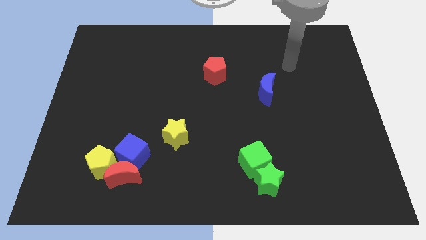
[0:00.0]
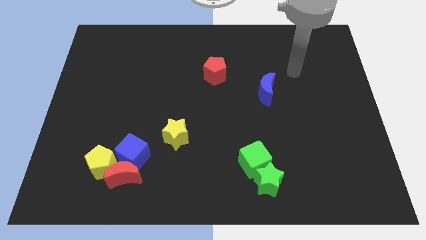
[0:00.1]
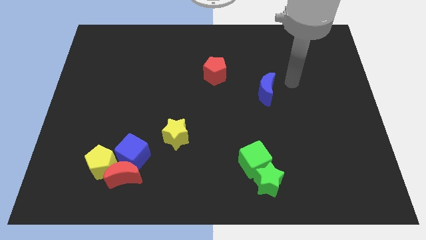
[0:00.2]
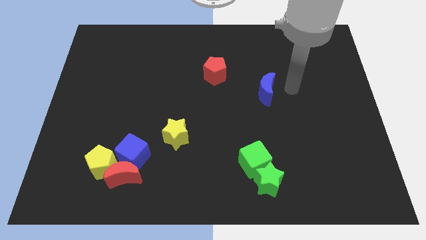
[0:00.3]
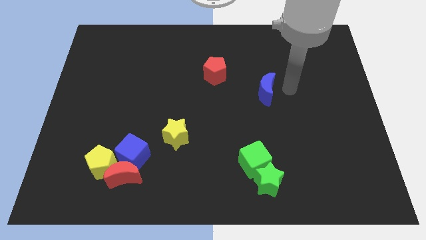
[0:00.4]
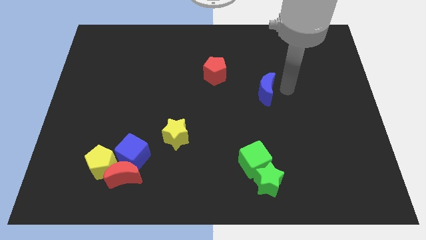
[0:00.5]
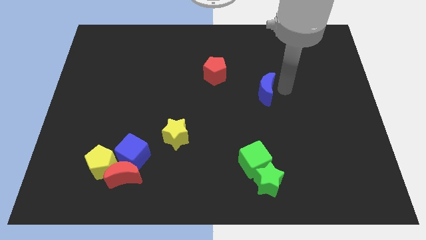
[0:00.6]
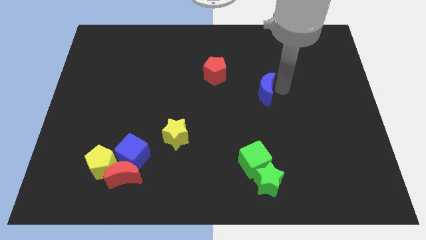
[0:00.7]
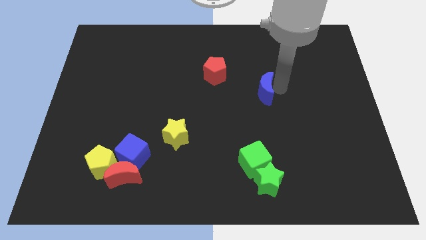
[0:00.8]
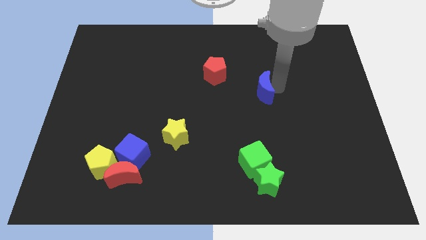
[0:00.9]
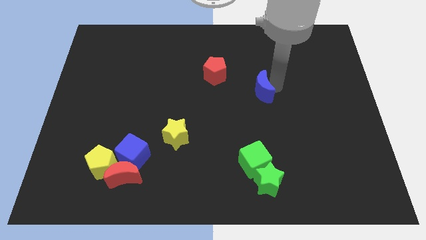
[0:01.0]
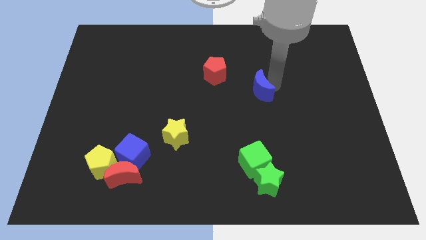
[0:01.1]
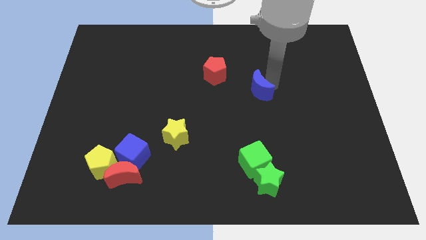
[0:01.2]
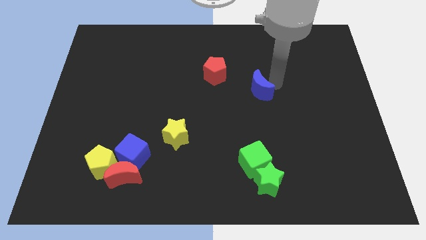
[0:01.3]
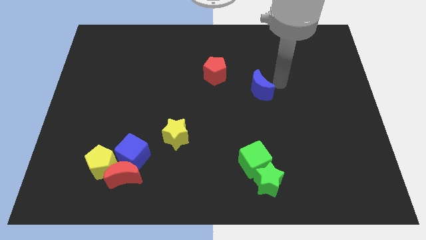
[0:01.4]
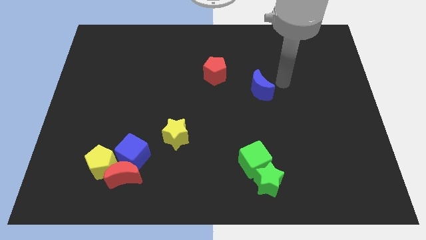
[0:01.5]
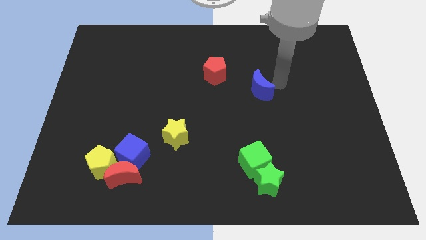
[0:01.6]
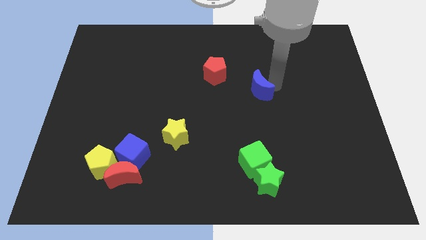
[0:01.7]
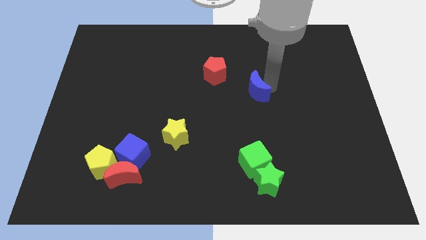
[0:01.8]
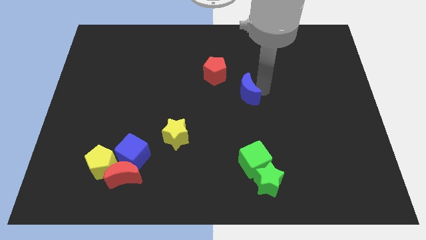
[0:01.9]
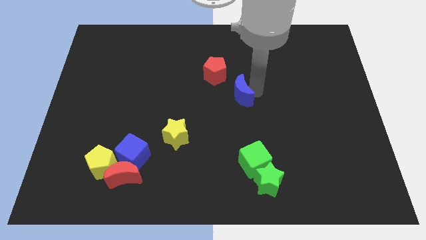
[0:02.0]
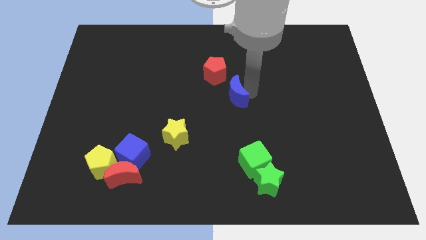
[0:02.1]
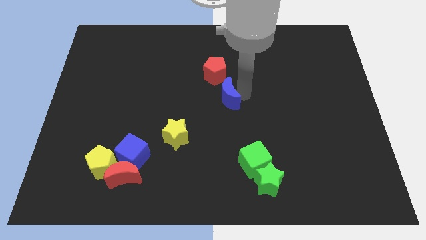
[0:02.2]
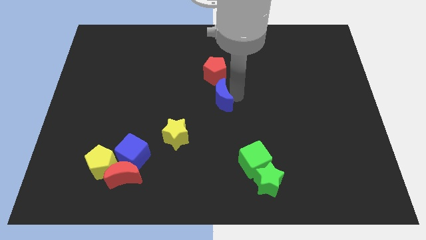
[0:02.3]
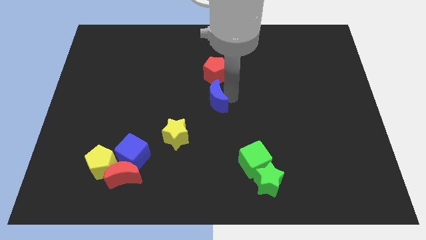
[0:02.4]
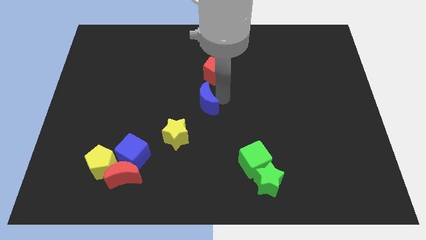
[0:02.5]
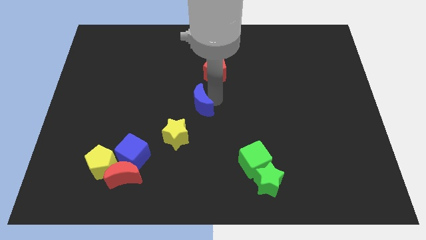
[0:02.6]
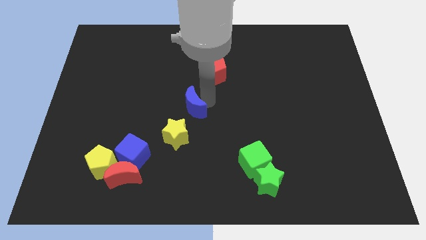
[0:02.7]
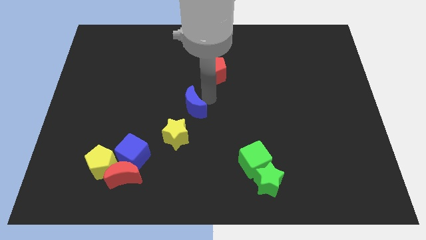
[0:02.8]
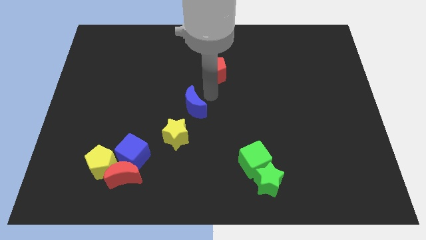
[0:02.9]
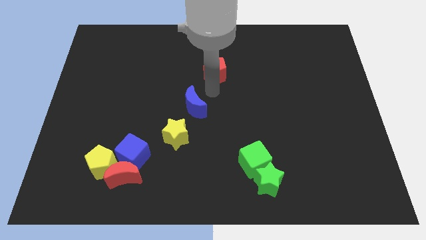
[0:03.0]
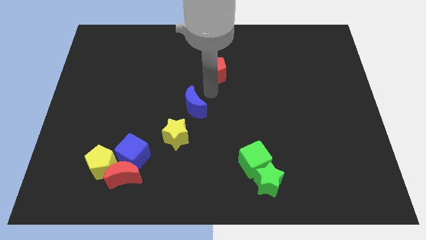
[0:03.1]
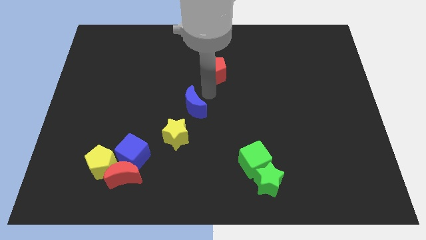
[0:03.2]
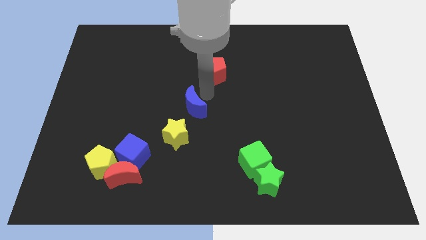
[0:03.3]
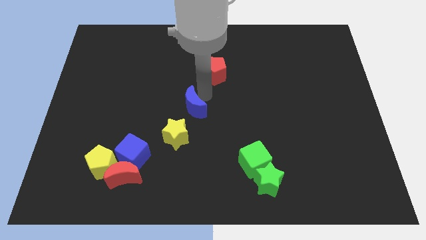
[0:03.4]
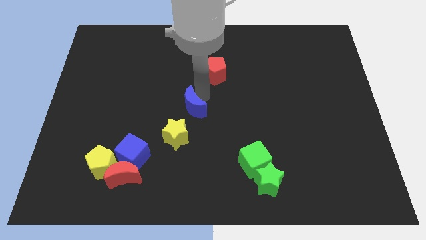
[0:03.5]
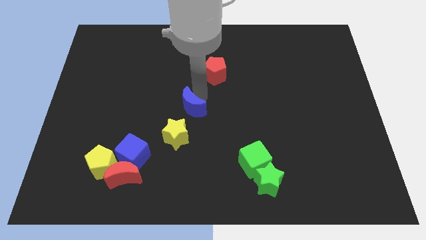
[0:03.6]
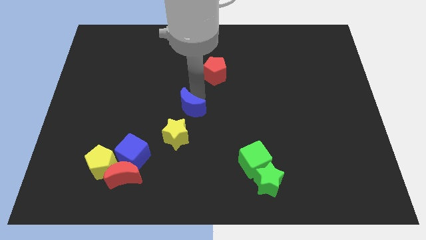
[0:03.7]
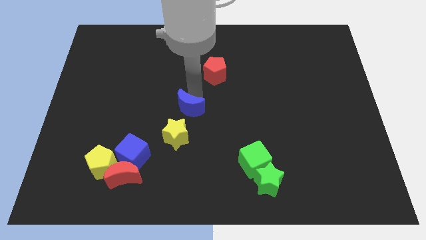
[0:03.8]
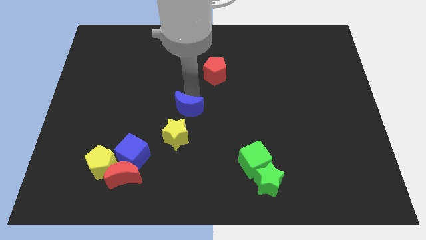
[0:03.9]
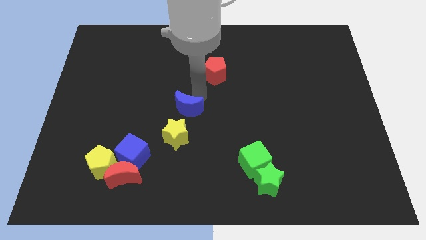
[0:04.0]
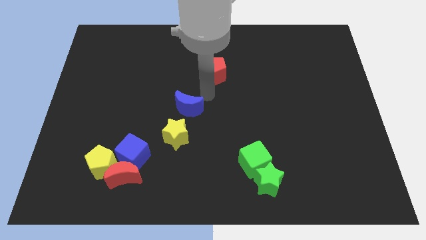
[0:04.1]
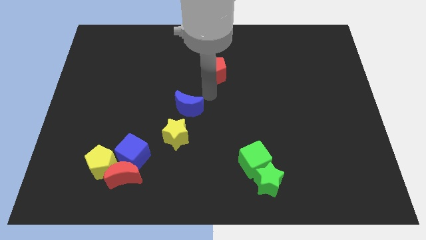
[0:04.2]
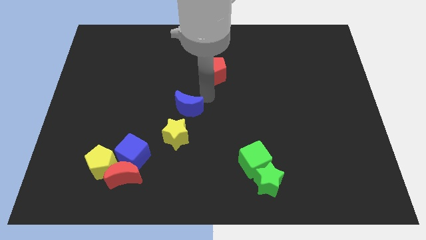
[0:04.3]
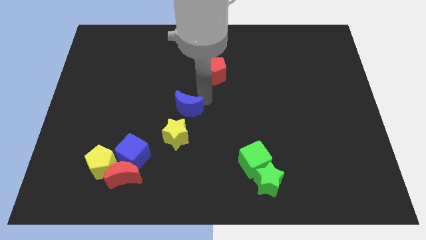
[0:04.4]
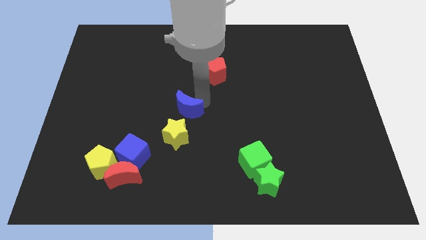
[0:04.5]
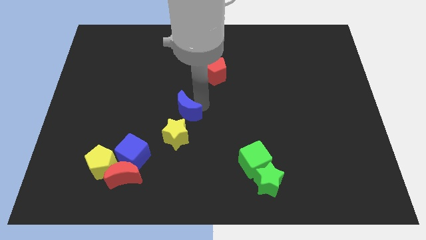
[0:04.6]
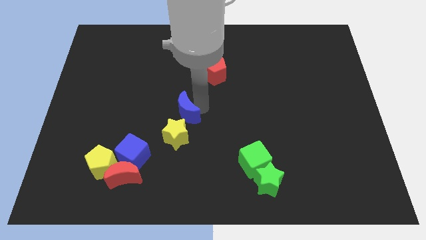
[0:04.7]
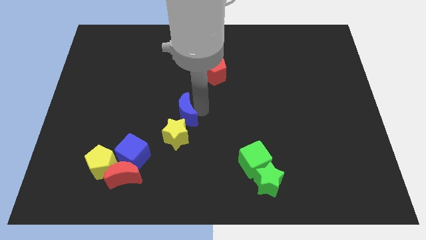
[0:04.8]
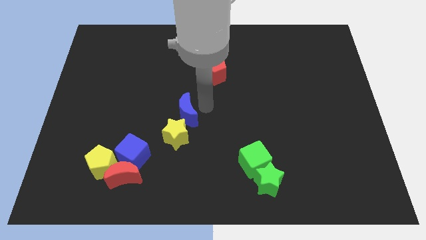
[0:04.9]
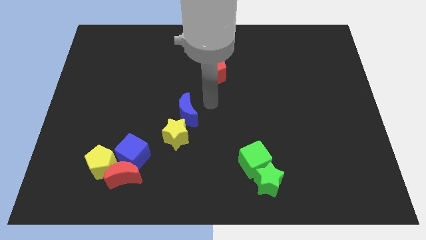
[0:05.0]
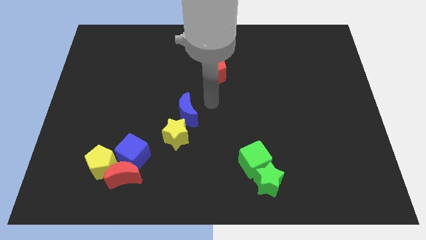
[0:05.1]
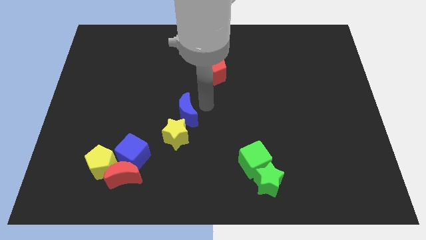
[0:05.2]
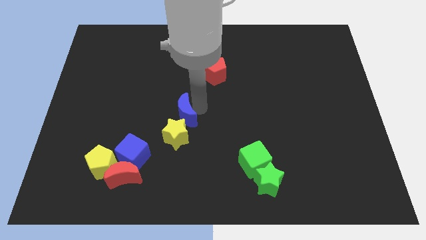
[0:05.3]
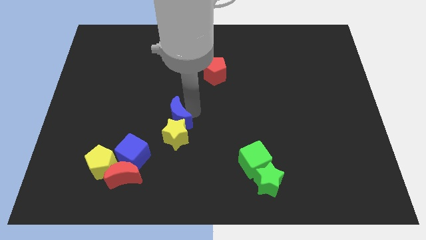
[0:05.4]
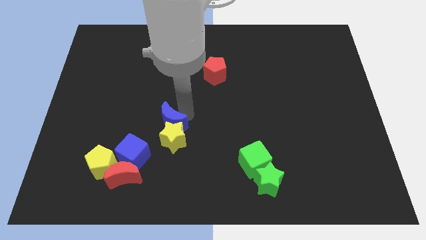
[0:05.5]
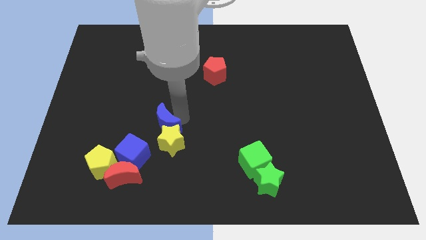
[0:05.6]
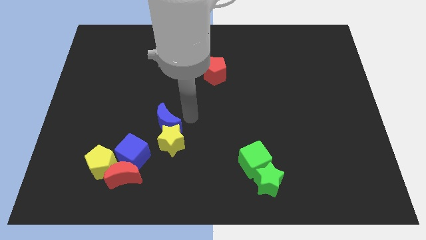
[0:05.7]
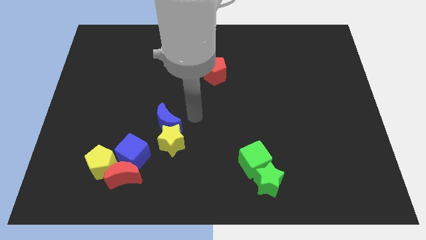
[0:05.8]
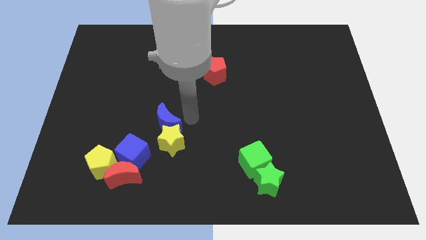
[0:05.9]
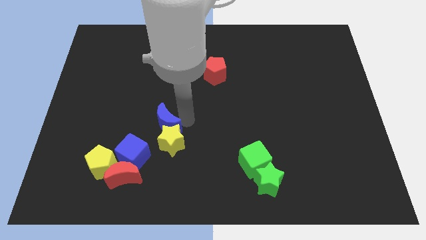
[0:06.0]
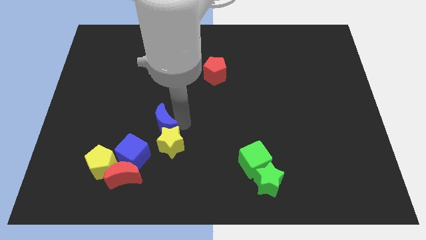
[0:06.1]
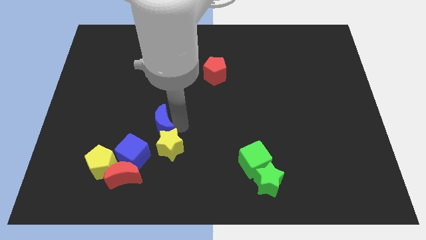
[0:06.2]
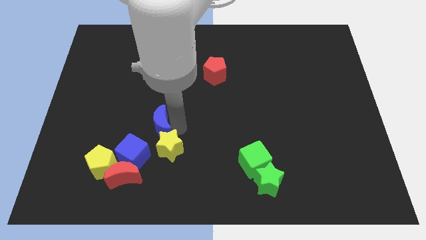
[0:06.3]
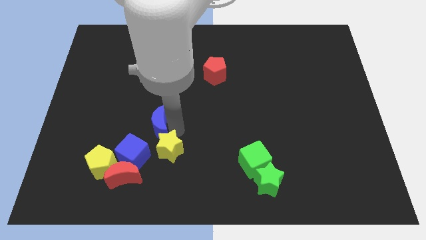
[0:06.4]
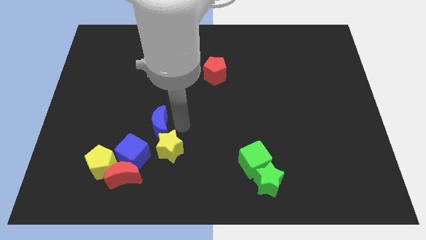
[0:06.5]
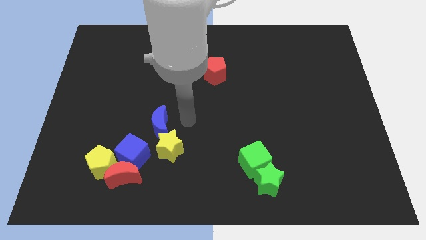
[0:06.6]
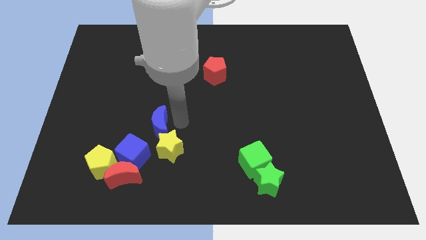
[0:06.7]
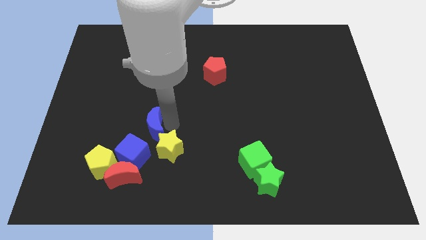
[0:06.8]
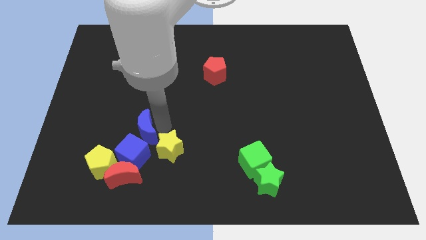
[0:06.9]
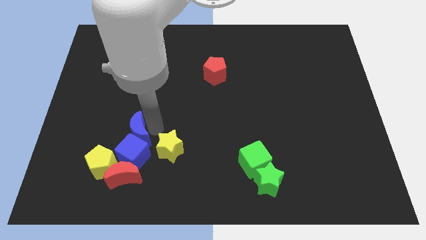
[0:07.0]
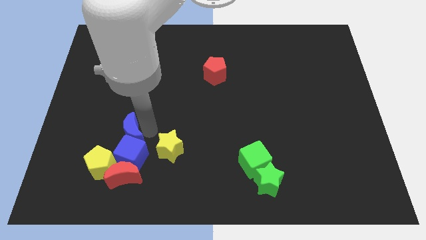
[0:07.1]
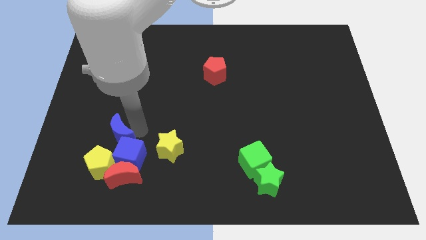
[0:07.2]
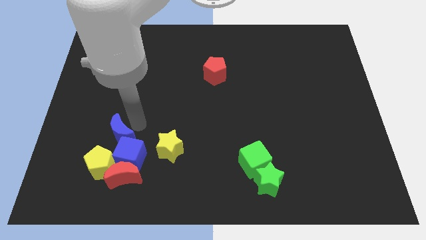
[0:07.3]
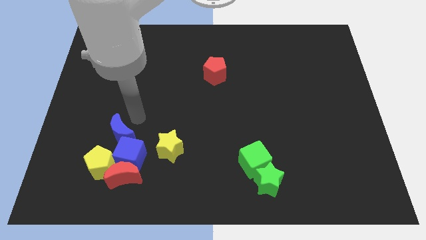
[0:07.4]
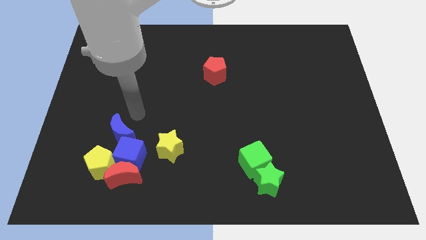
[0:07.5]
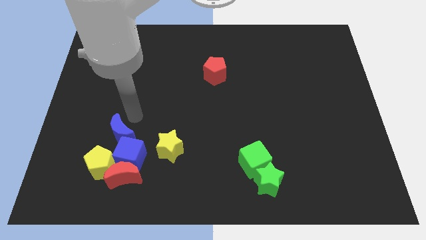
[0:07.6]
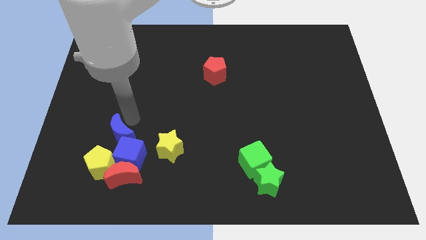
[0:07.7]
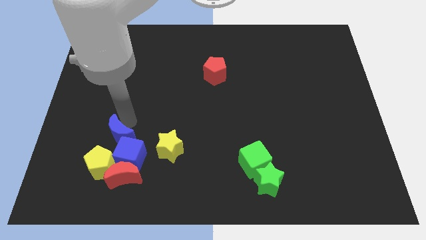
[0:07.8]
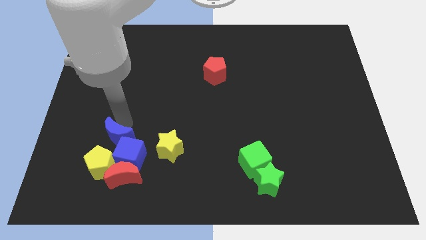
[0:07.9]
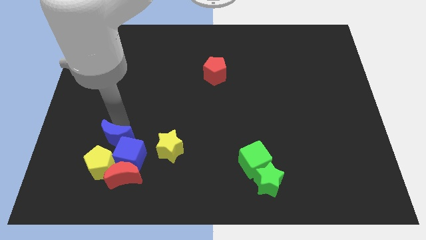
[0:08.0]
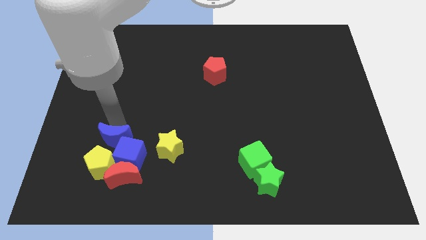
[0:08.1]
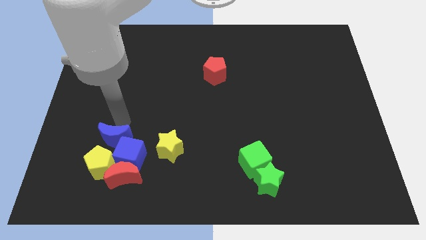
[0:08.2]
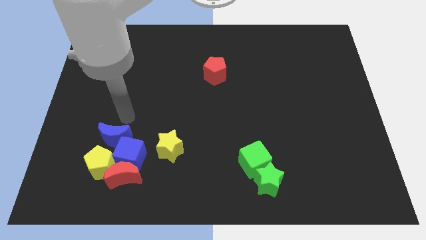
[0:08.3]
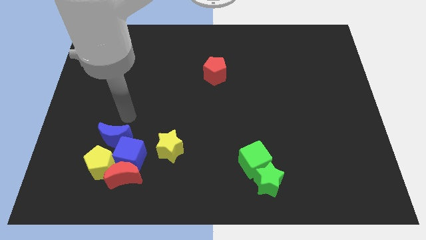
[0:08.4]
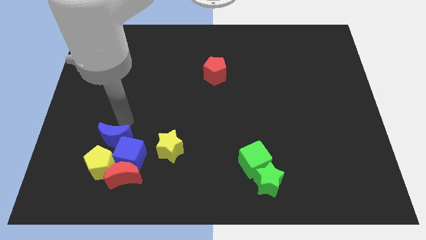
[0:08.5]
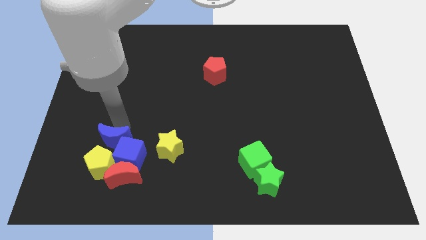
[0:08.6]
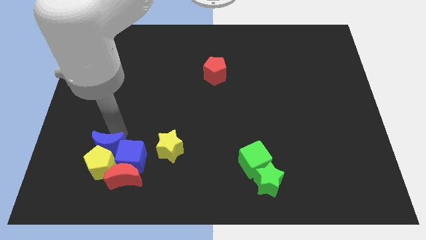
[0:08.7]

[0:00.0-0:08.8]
move the blue moon towards the yellow pentagon
